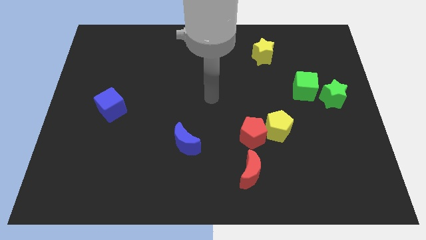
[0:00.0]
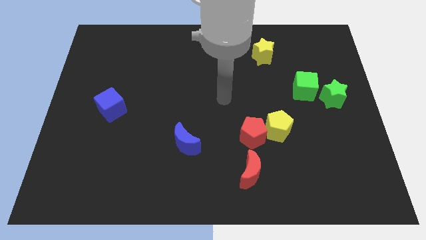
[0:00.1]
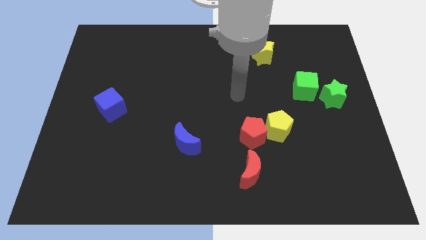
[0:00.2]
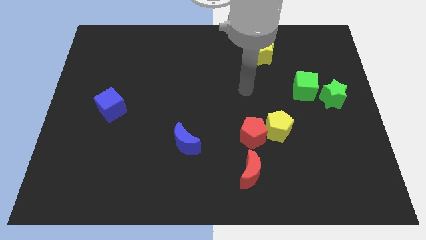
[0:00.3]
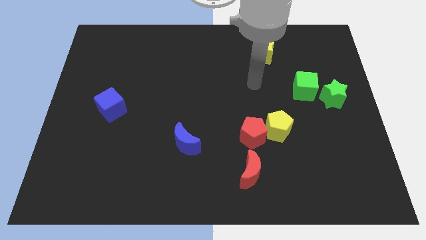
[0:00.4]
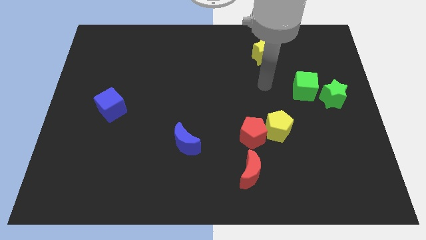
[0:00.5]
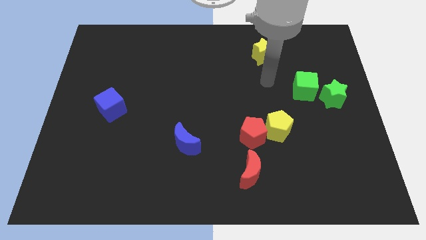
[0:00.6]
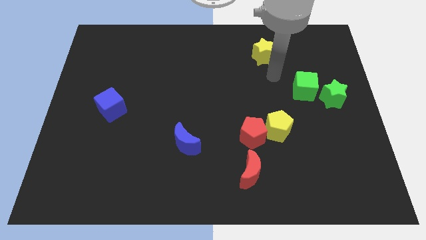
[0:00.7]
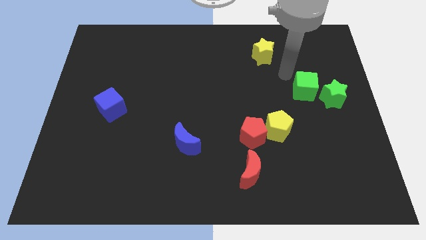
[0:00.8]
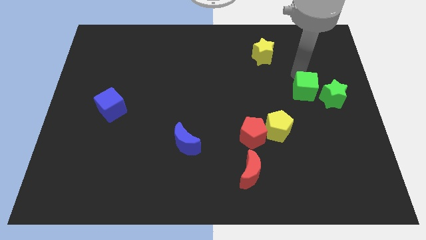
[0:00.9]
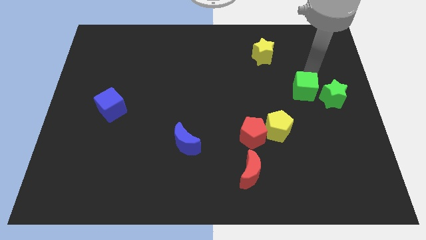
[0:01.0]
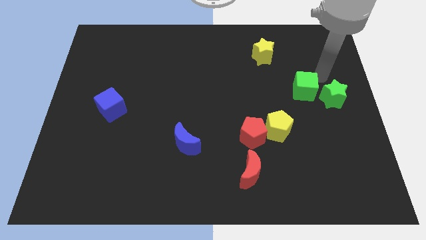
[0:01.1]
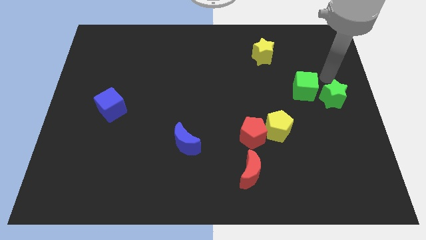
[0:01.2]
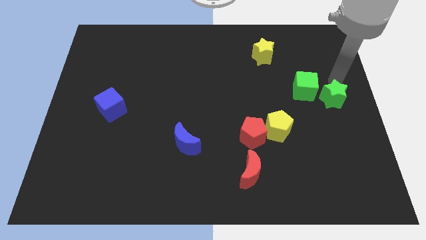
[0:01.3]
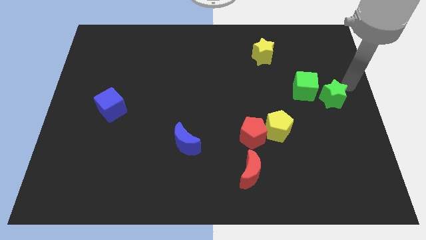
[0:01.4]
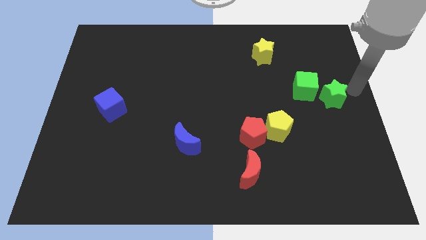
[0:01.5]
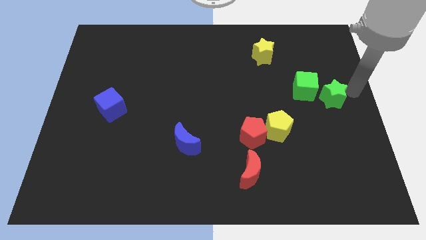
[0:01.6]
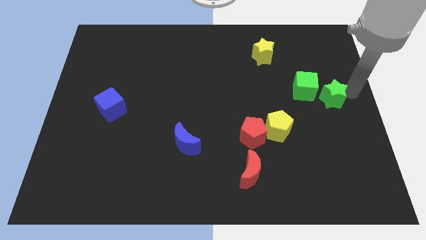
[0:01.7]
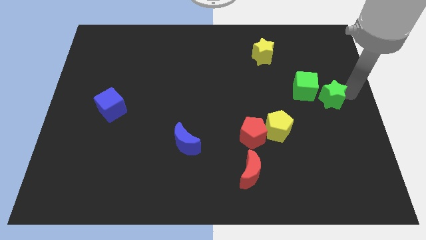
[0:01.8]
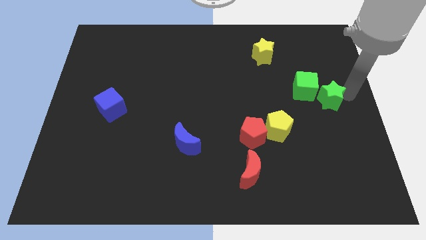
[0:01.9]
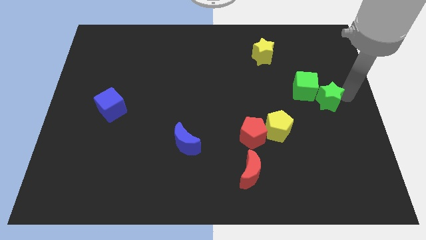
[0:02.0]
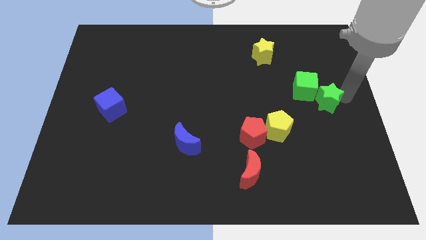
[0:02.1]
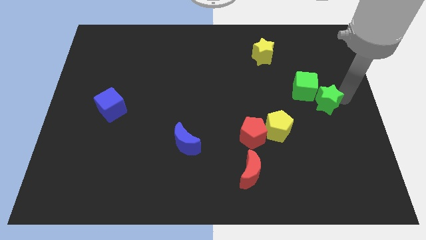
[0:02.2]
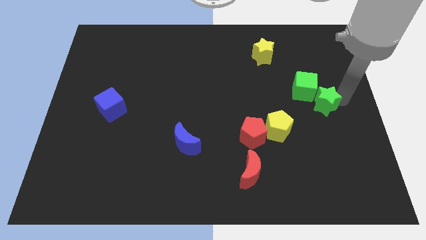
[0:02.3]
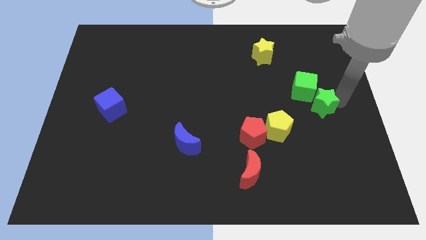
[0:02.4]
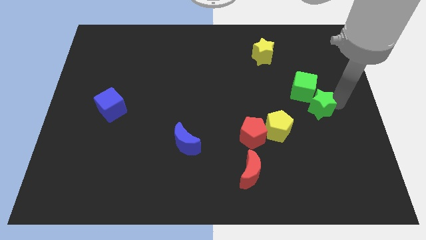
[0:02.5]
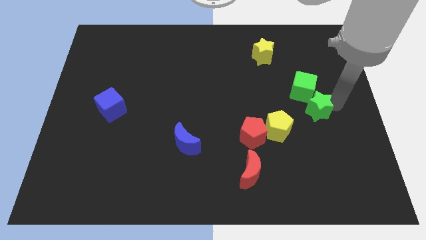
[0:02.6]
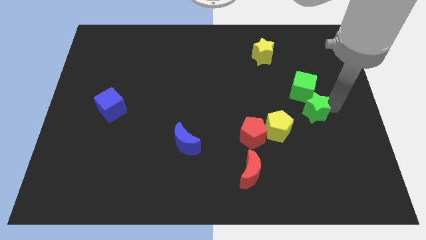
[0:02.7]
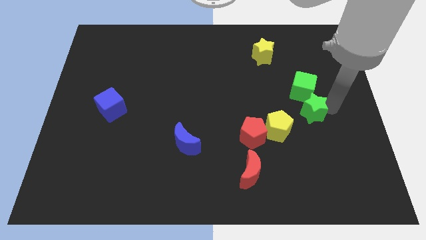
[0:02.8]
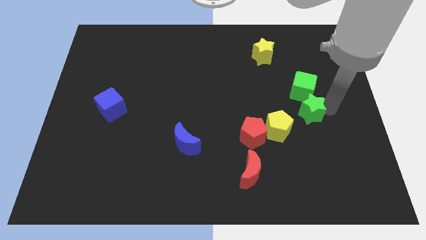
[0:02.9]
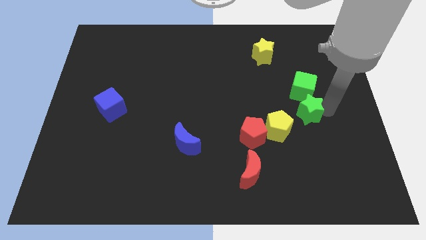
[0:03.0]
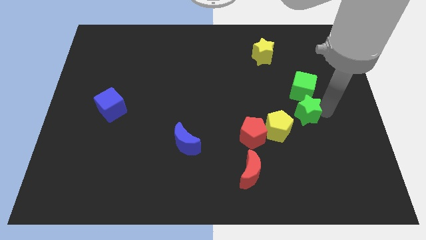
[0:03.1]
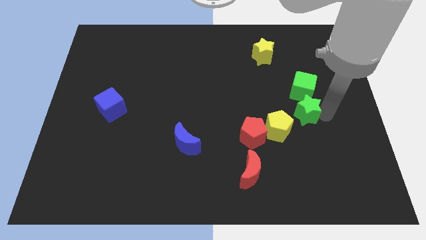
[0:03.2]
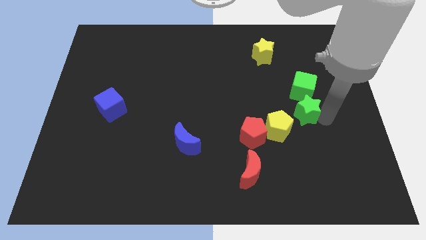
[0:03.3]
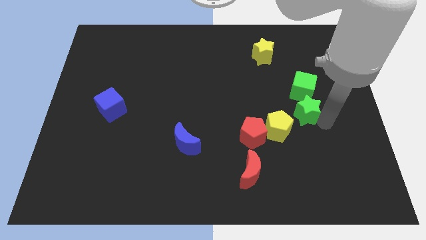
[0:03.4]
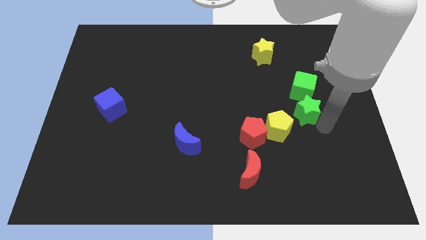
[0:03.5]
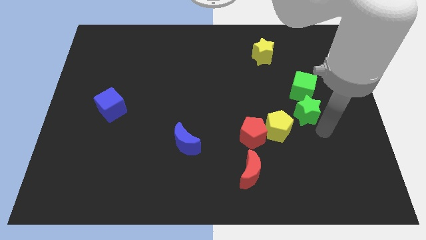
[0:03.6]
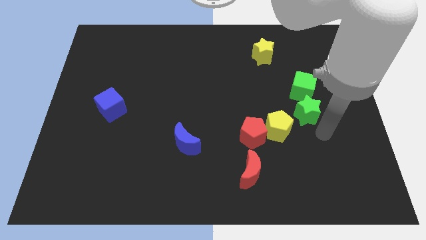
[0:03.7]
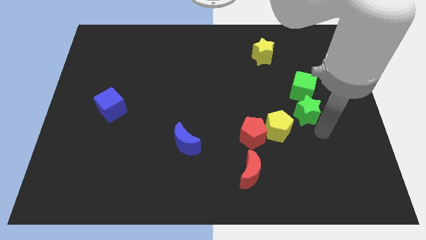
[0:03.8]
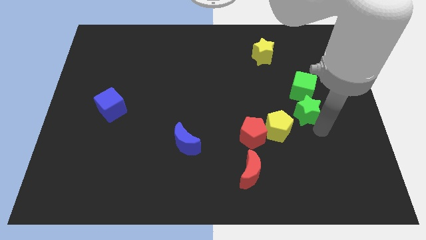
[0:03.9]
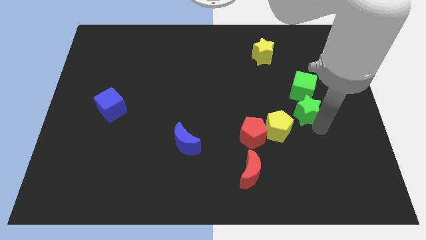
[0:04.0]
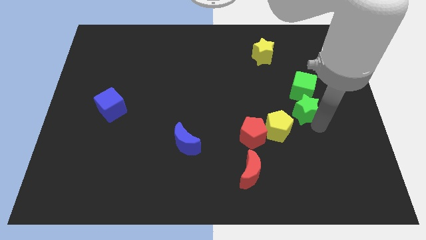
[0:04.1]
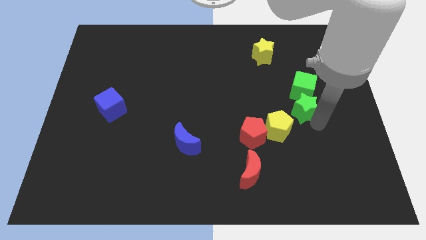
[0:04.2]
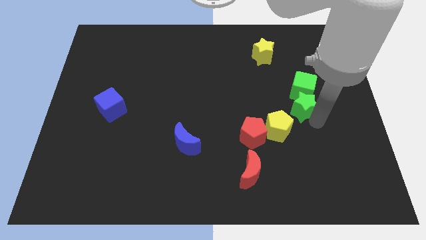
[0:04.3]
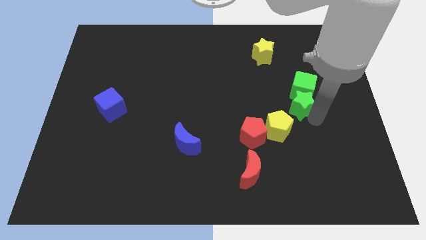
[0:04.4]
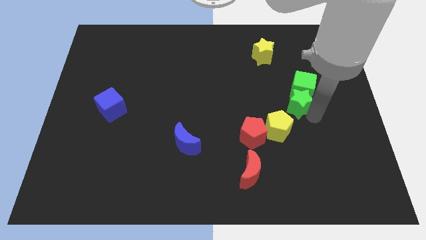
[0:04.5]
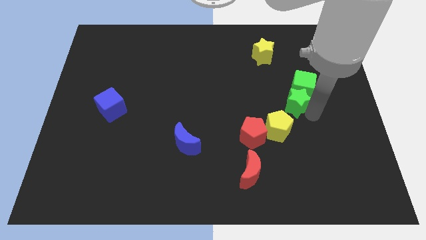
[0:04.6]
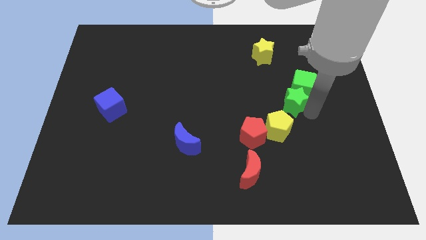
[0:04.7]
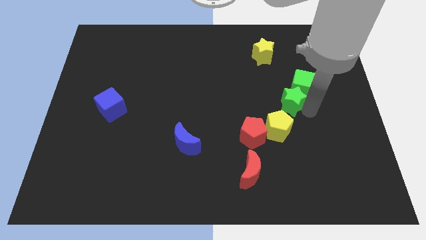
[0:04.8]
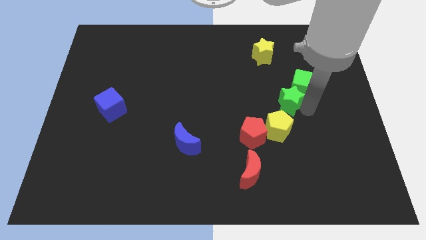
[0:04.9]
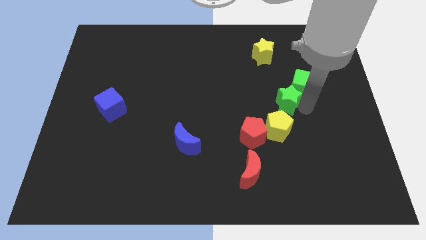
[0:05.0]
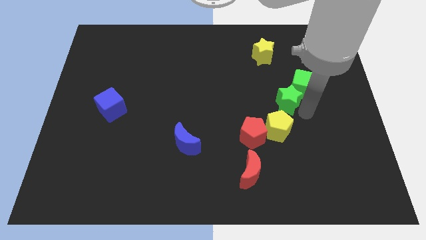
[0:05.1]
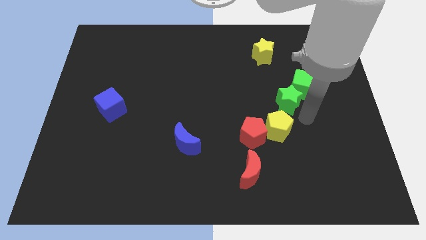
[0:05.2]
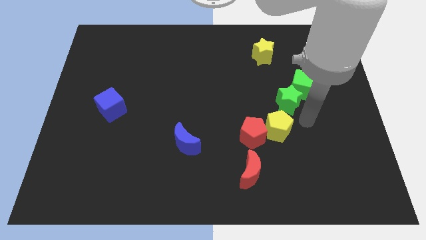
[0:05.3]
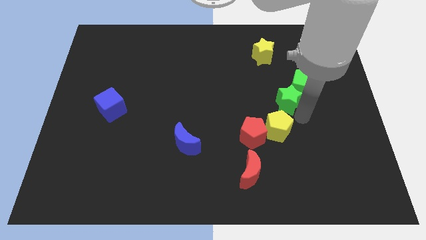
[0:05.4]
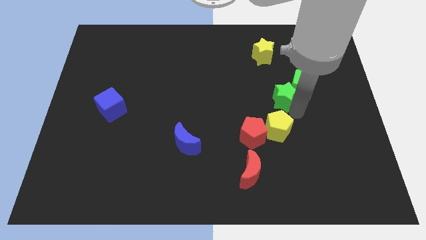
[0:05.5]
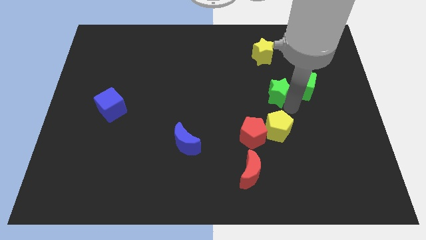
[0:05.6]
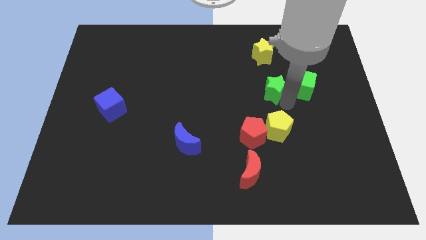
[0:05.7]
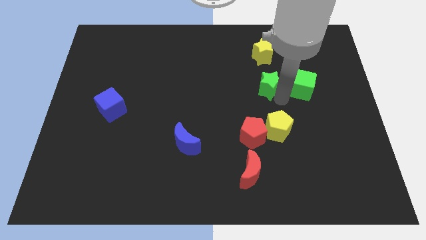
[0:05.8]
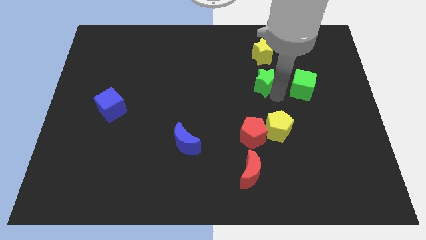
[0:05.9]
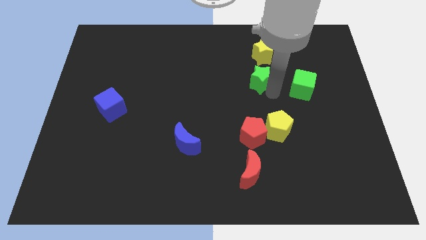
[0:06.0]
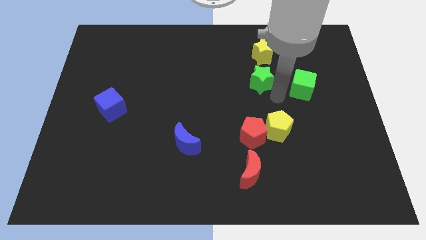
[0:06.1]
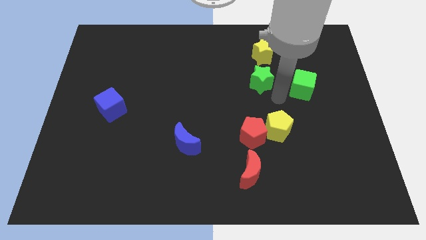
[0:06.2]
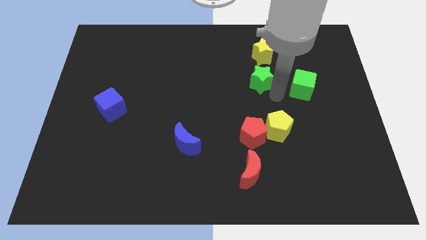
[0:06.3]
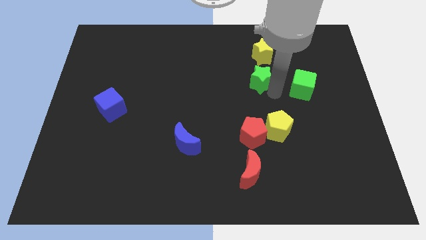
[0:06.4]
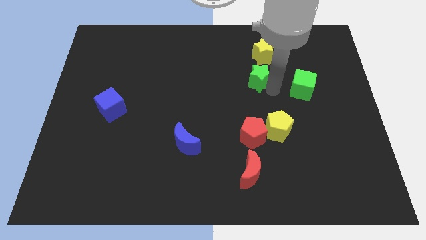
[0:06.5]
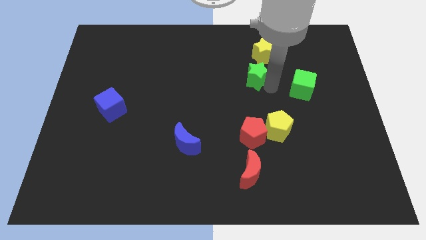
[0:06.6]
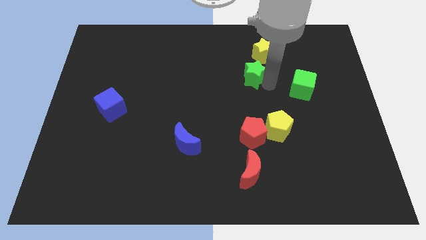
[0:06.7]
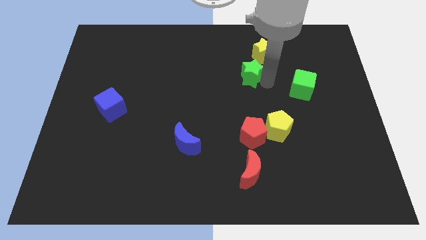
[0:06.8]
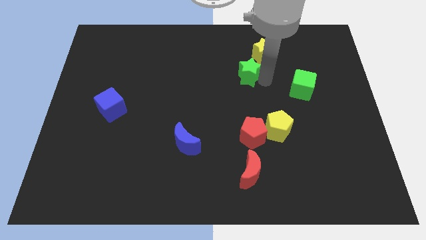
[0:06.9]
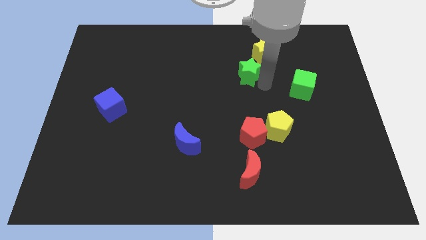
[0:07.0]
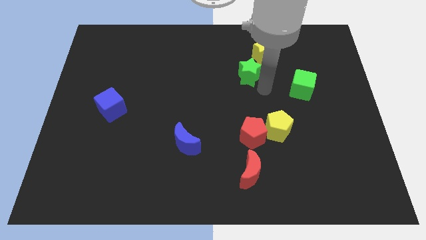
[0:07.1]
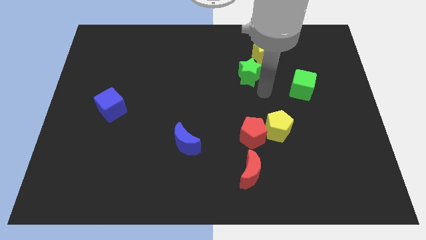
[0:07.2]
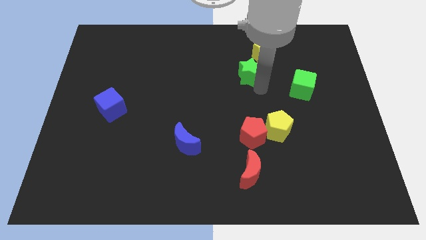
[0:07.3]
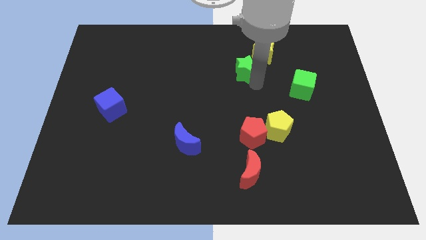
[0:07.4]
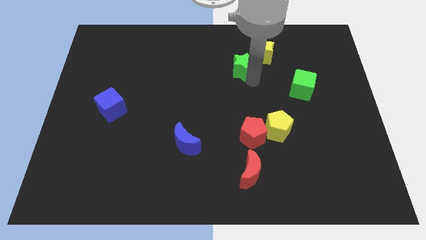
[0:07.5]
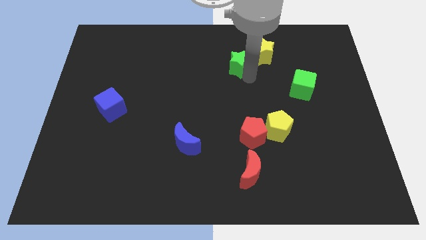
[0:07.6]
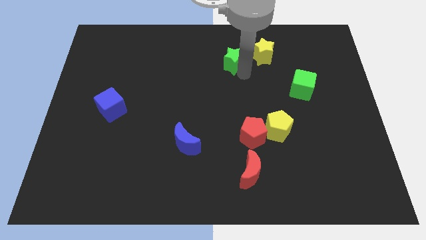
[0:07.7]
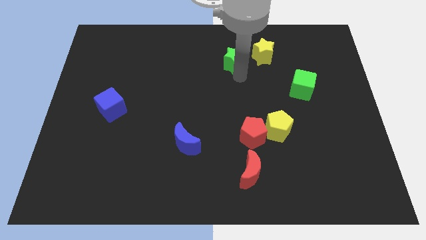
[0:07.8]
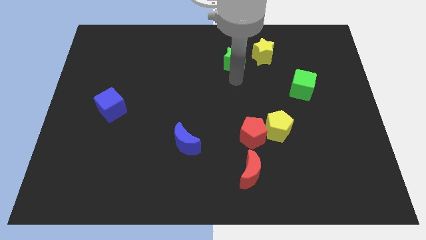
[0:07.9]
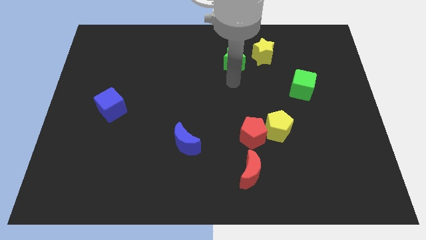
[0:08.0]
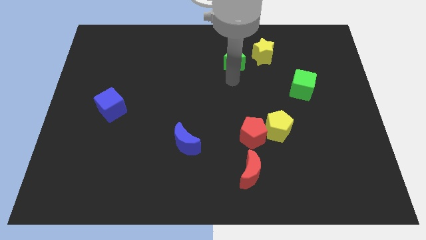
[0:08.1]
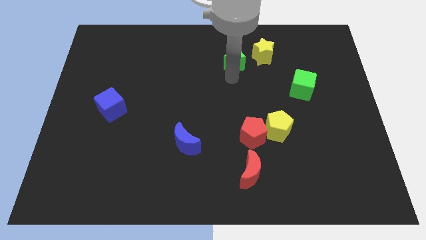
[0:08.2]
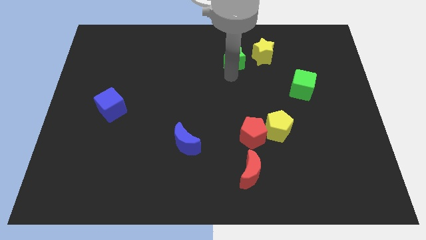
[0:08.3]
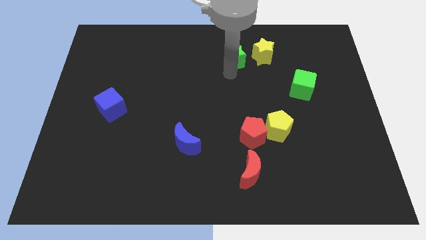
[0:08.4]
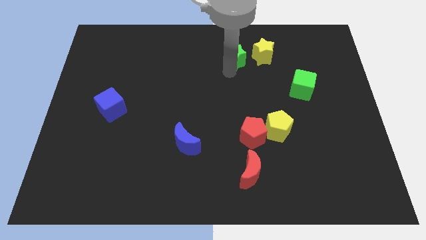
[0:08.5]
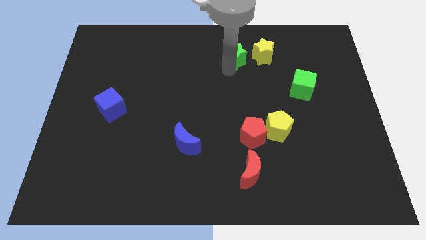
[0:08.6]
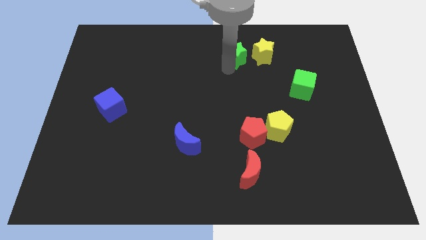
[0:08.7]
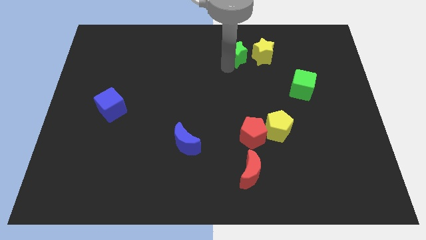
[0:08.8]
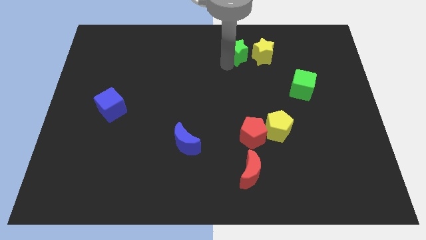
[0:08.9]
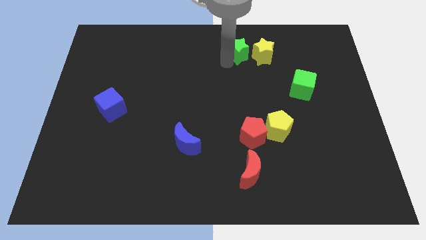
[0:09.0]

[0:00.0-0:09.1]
slide the green star to the top side
